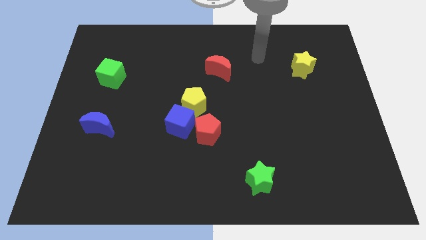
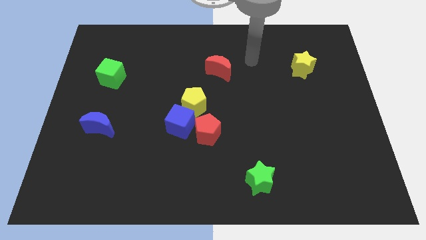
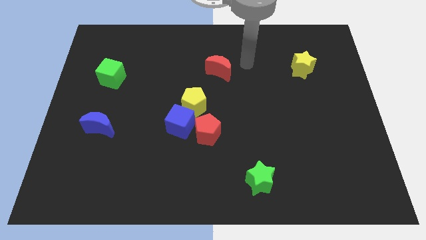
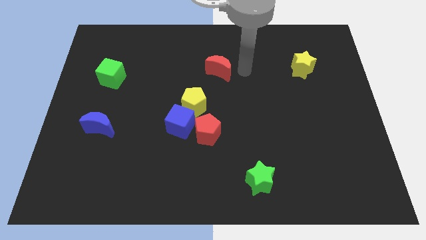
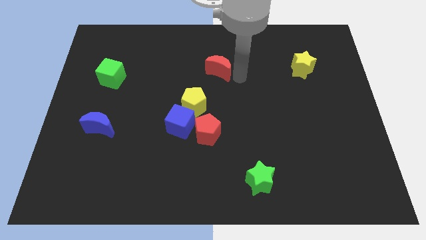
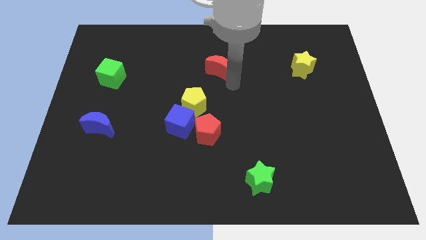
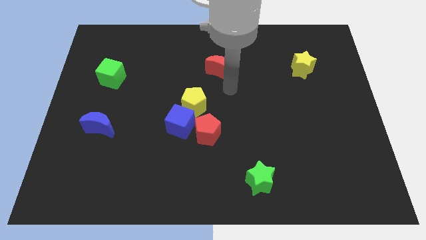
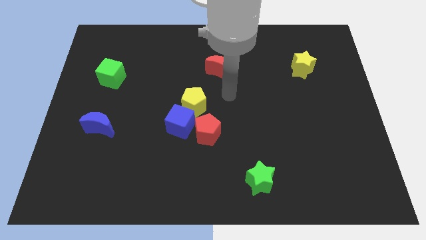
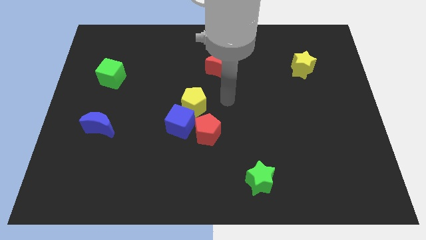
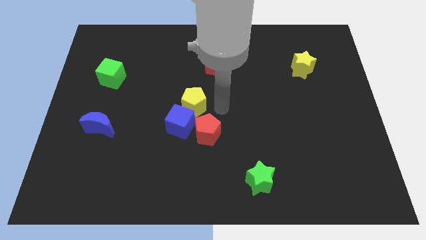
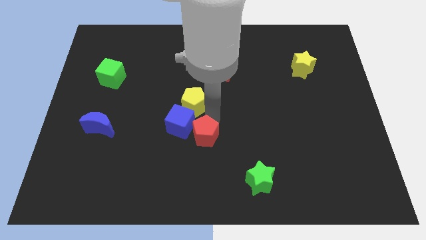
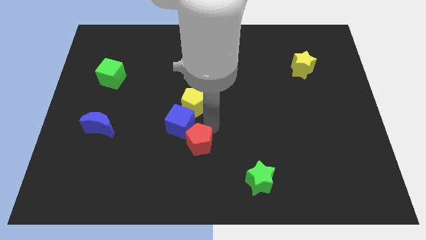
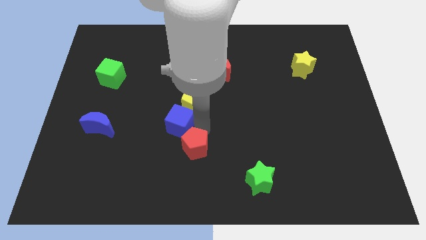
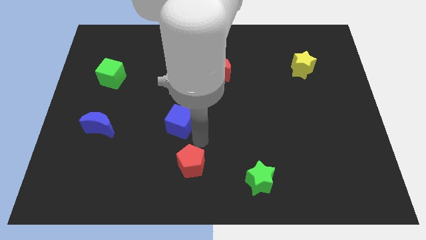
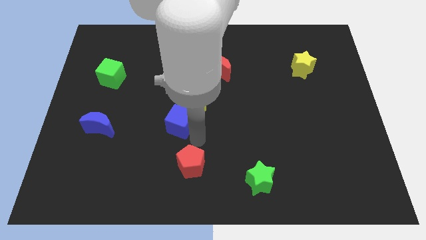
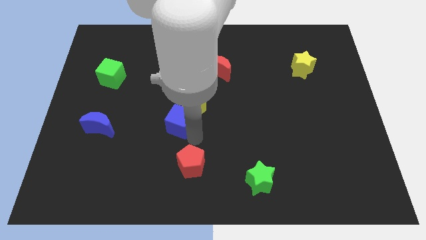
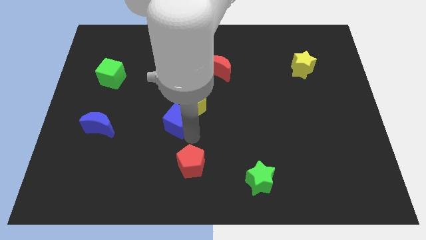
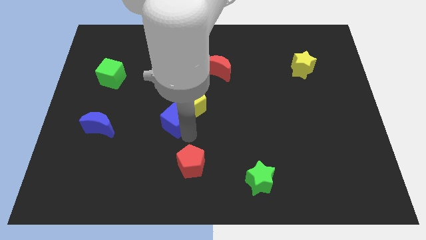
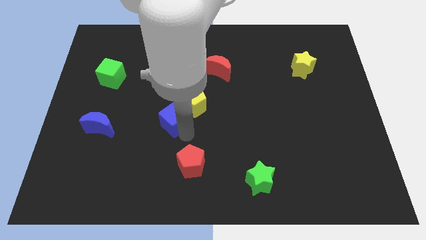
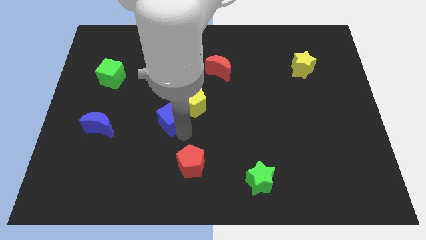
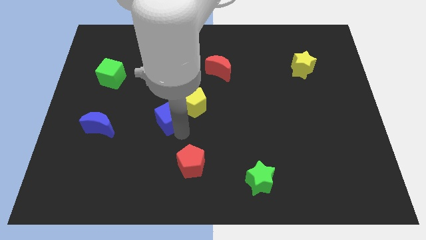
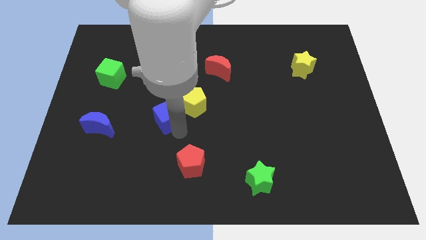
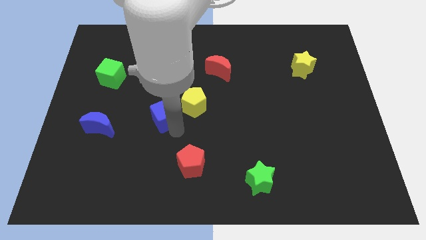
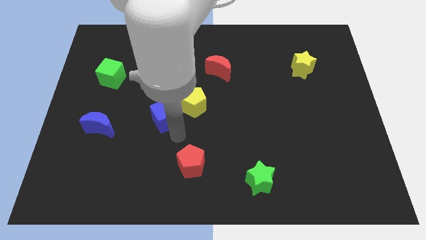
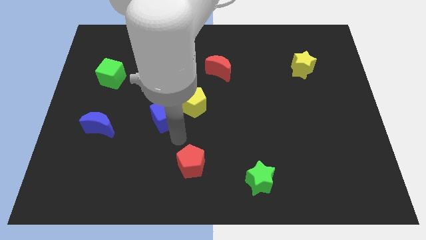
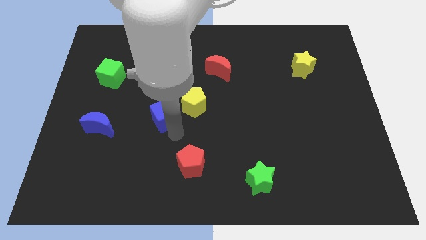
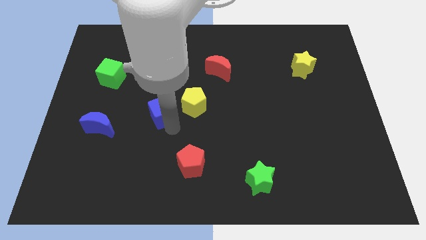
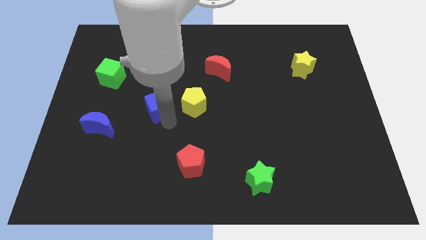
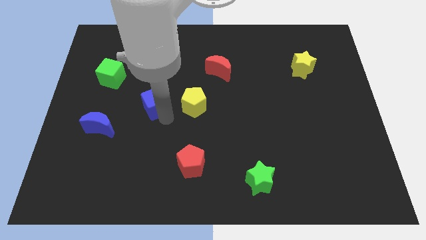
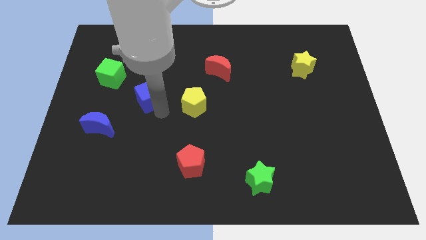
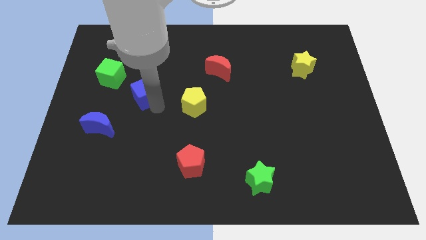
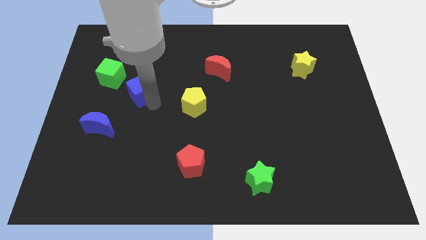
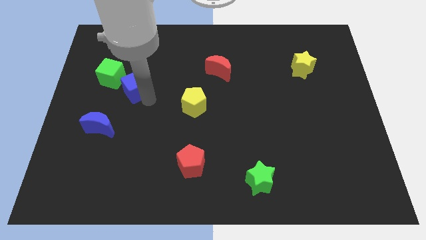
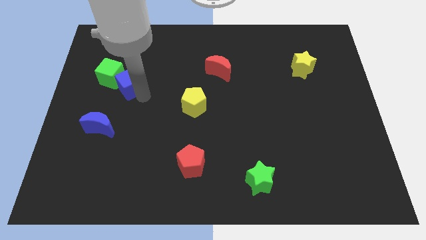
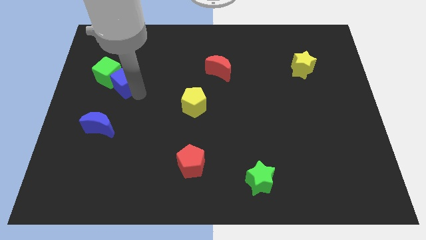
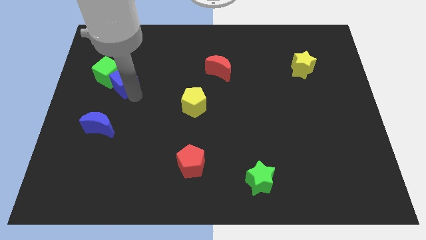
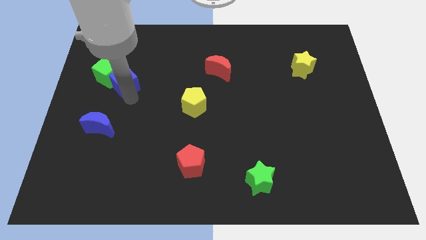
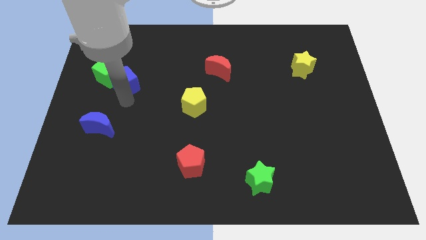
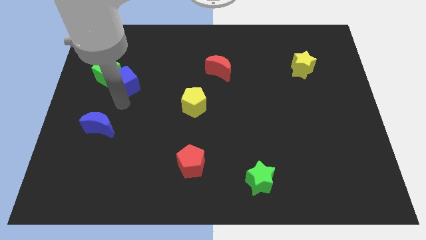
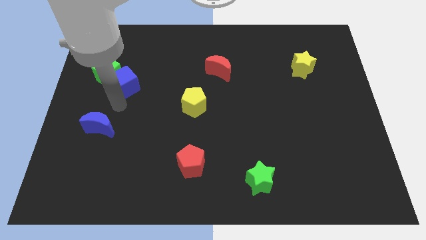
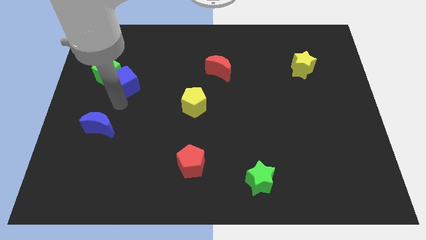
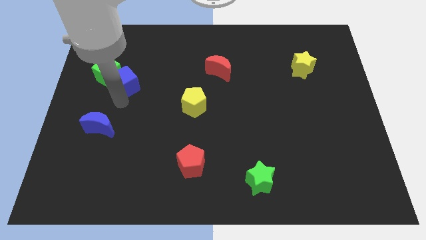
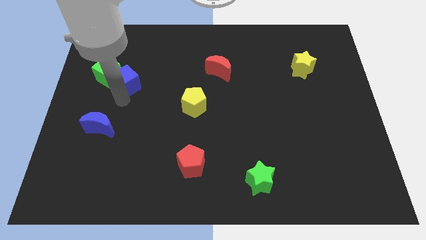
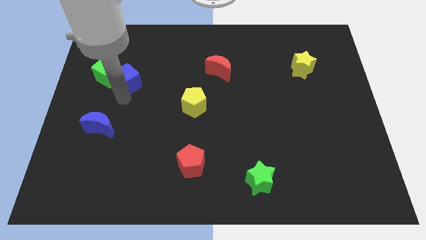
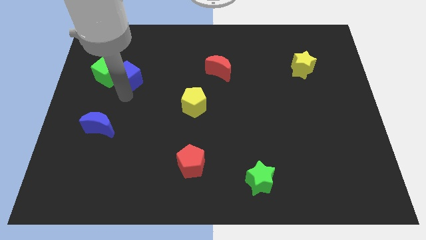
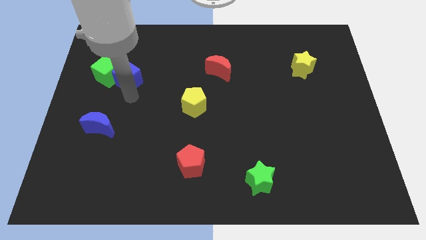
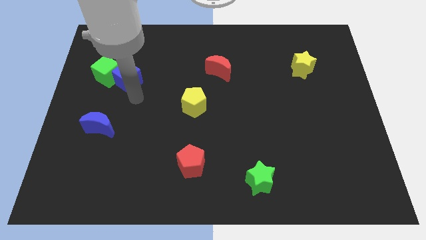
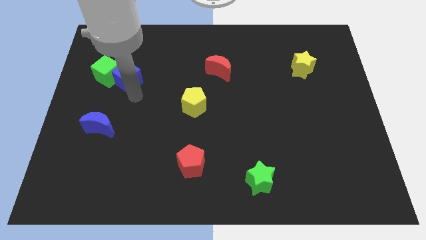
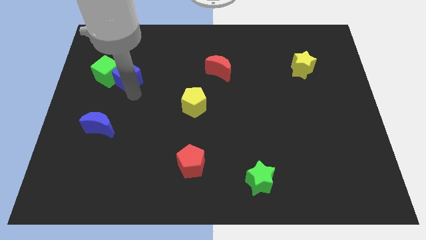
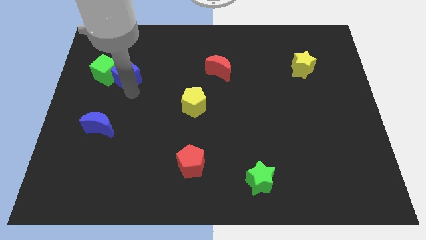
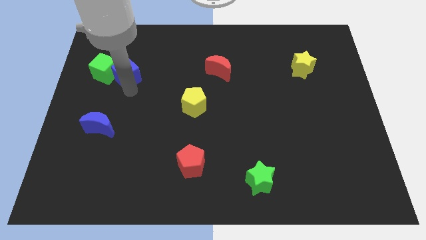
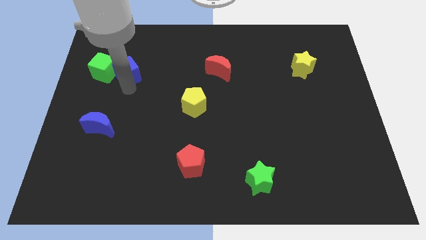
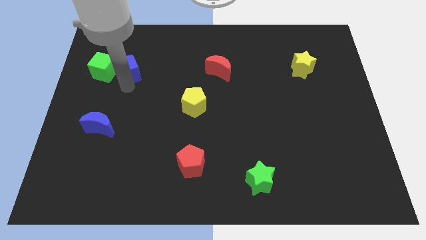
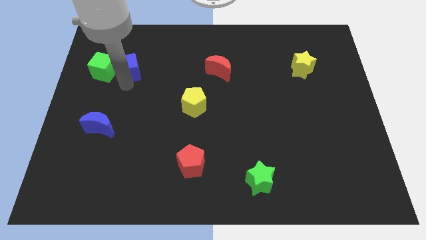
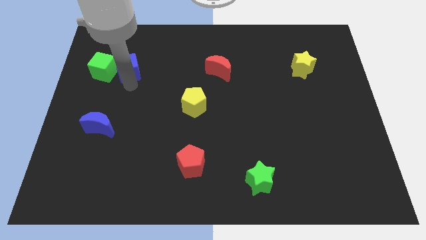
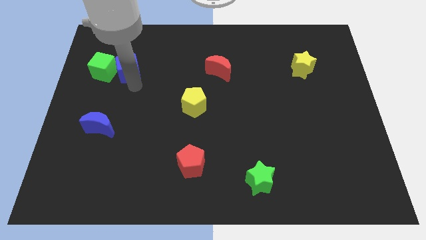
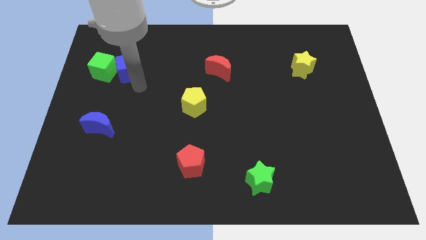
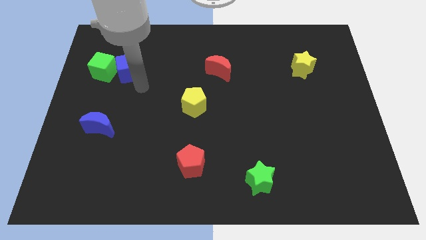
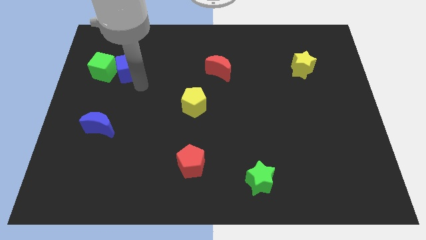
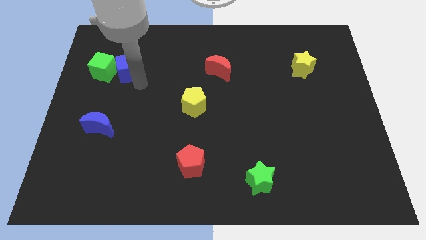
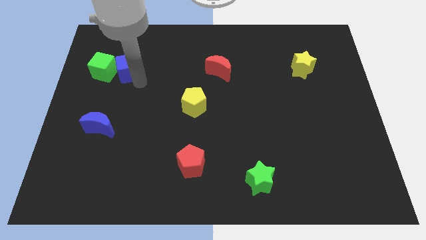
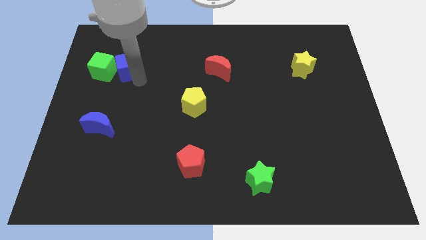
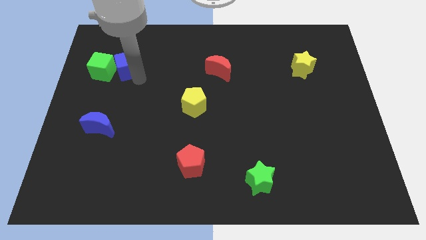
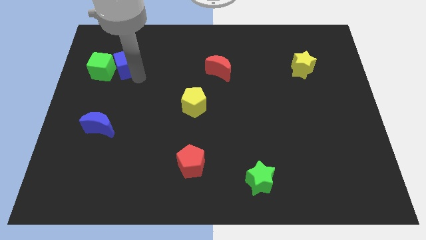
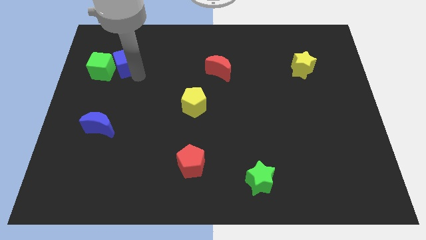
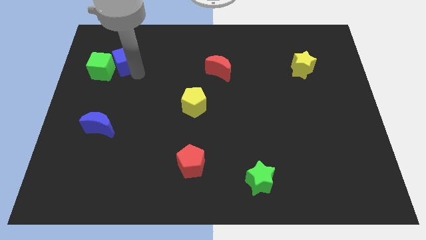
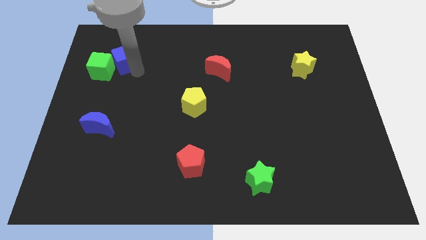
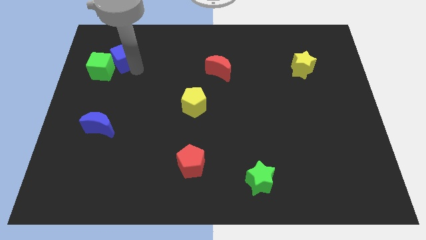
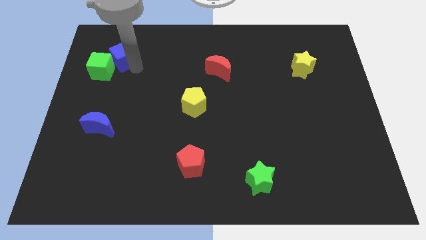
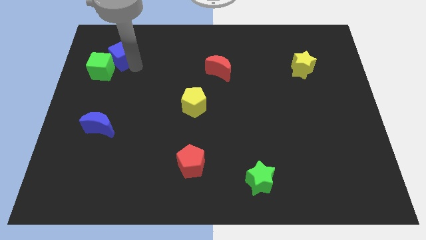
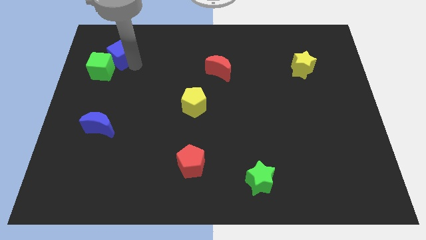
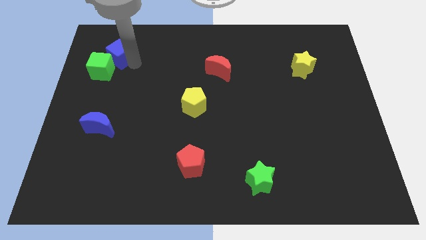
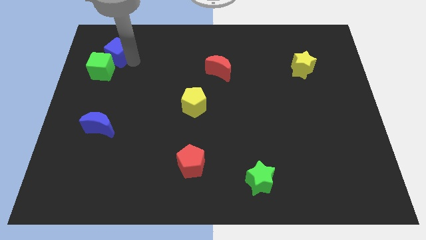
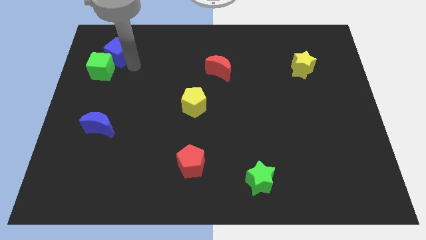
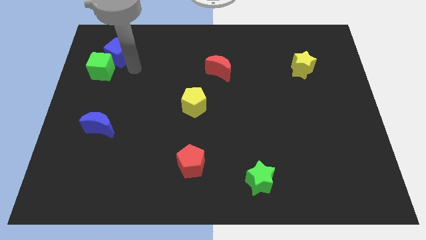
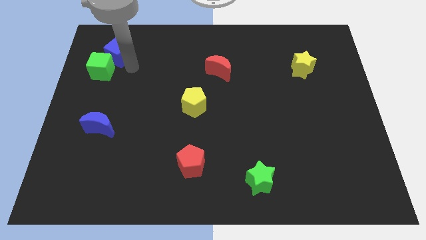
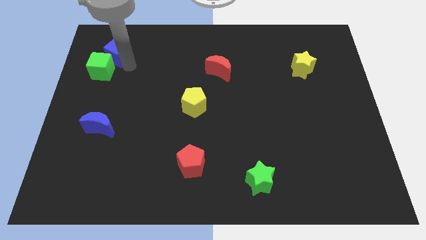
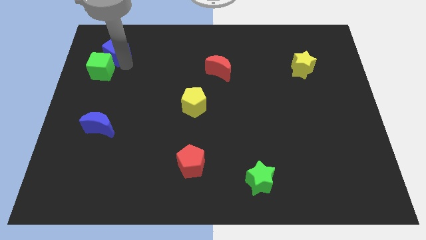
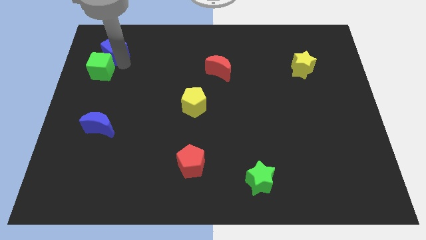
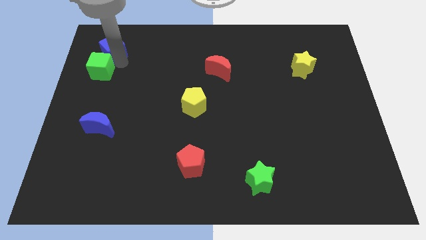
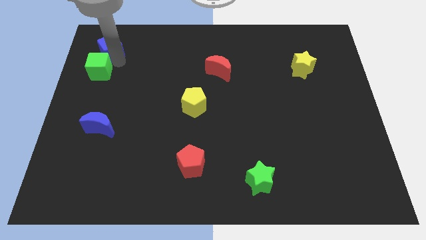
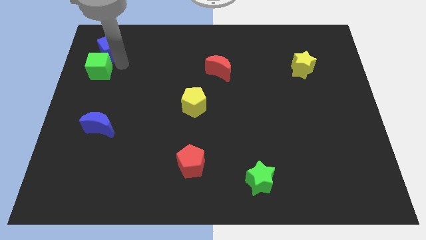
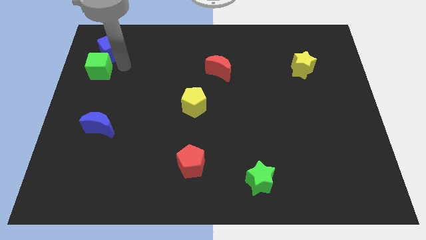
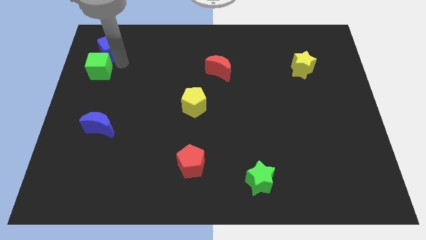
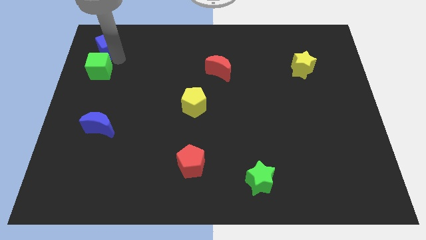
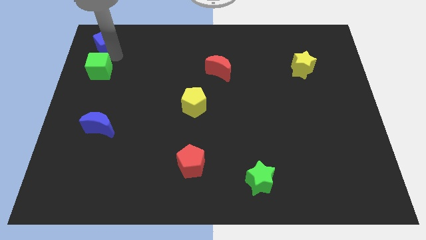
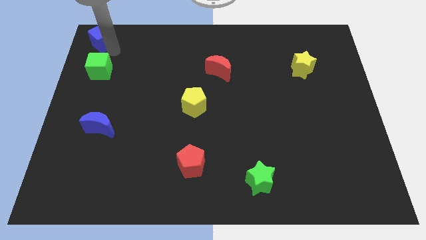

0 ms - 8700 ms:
push the blue cube to the upper left corner
